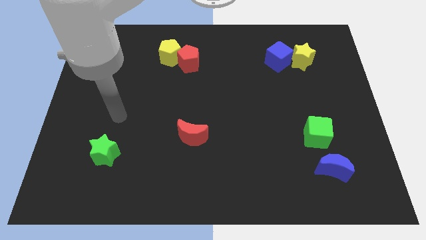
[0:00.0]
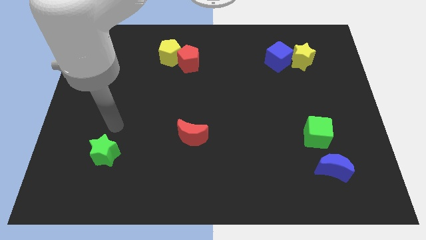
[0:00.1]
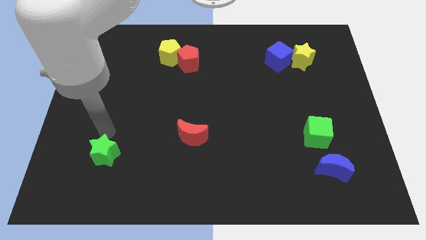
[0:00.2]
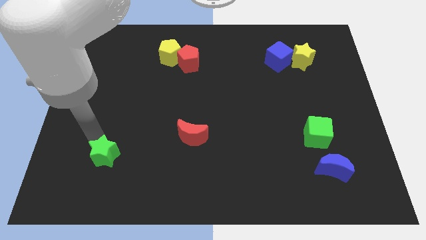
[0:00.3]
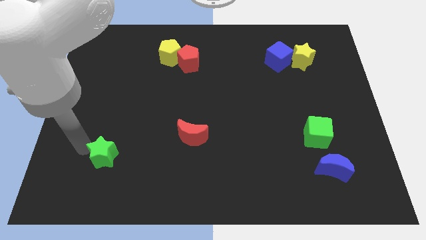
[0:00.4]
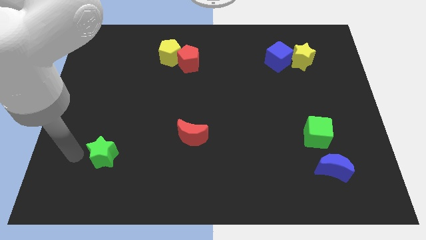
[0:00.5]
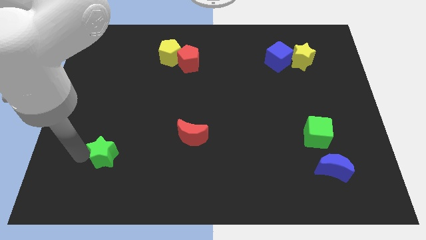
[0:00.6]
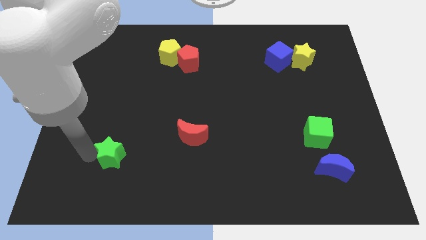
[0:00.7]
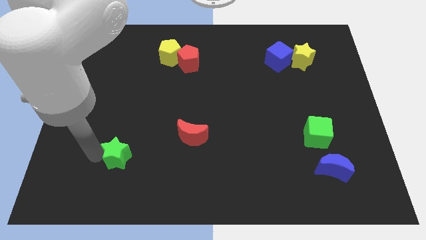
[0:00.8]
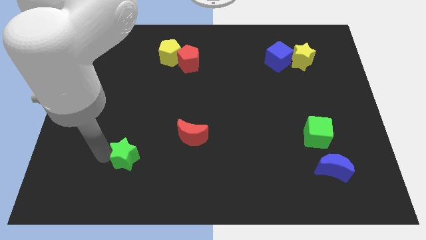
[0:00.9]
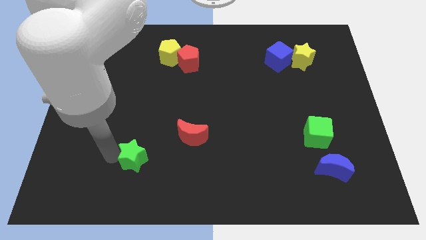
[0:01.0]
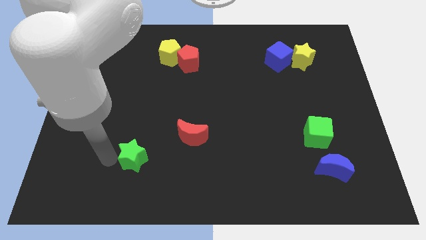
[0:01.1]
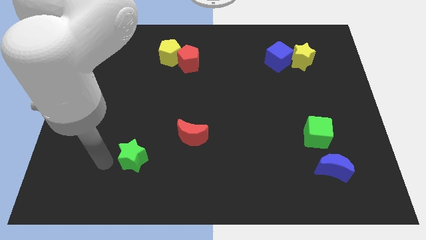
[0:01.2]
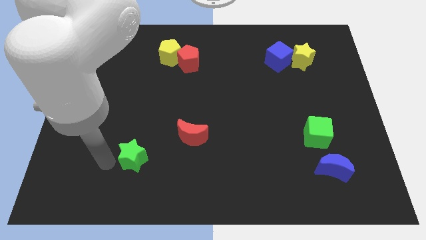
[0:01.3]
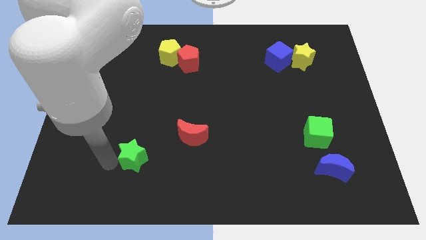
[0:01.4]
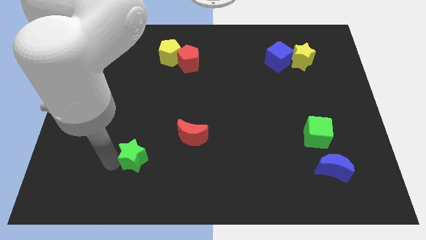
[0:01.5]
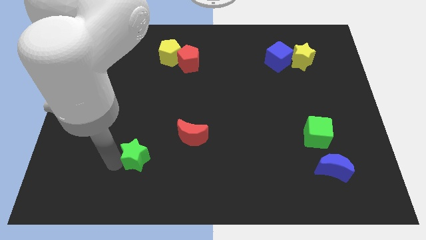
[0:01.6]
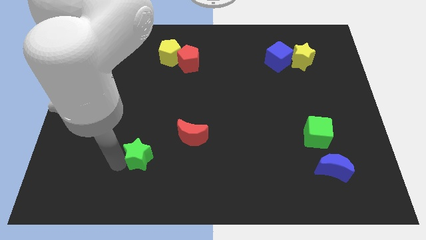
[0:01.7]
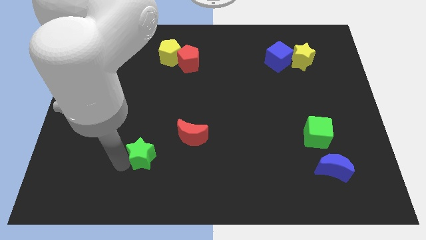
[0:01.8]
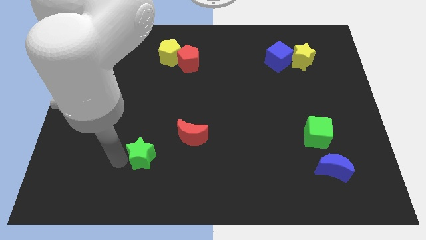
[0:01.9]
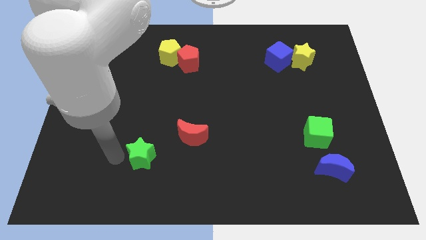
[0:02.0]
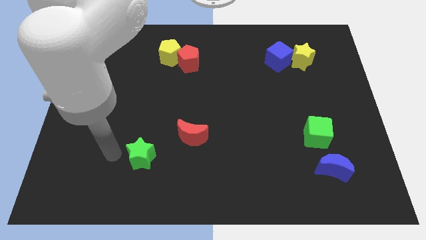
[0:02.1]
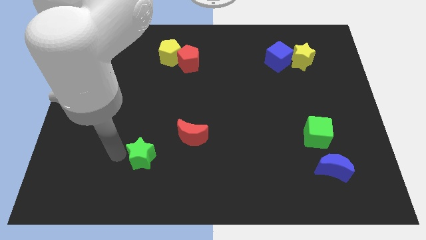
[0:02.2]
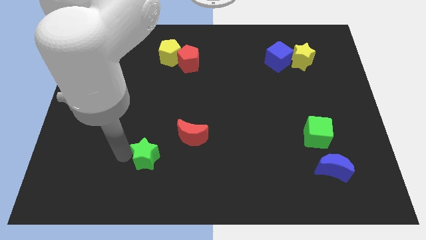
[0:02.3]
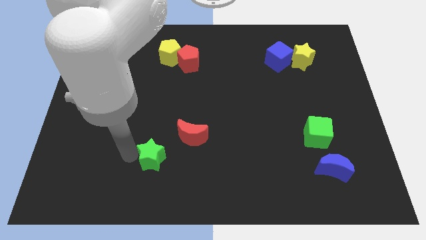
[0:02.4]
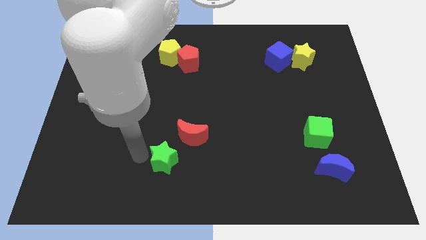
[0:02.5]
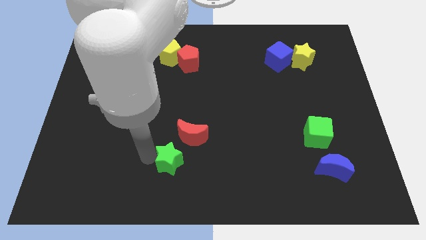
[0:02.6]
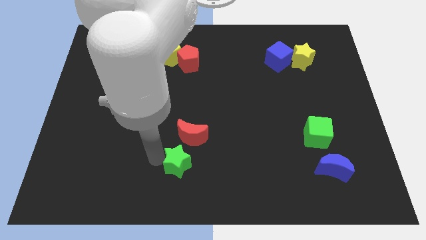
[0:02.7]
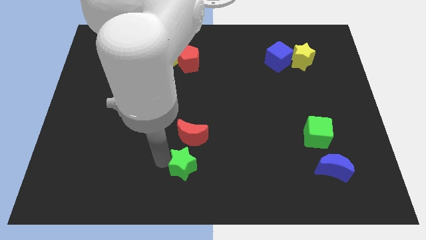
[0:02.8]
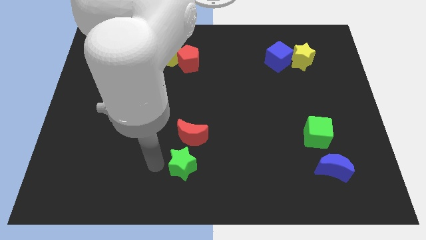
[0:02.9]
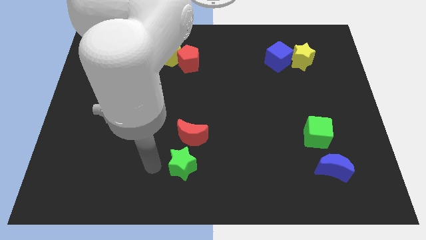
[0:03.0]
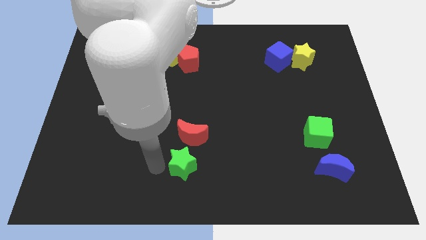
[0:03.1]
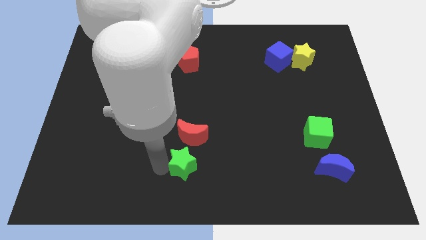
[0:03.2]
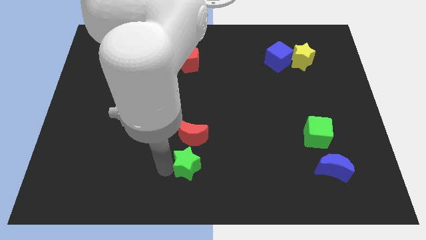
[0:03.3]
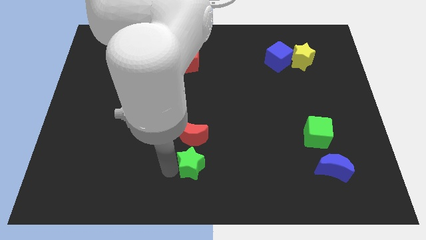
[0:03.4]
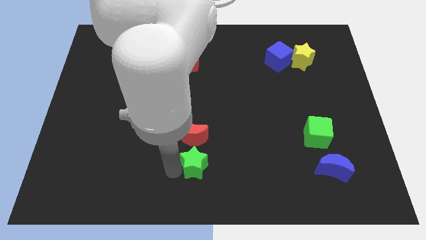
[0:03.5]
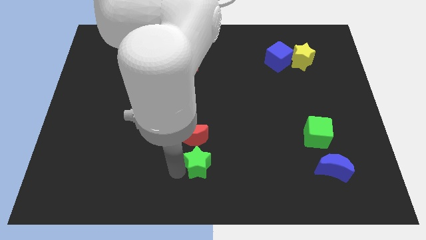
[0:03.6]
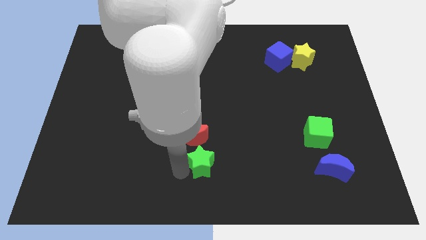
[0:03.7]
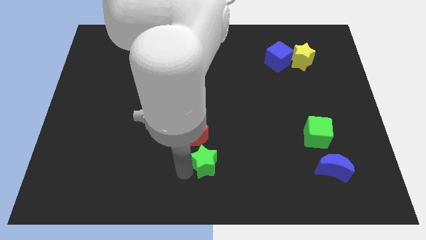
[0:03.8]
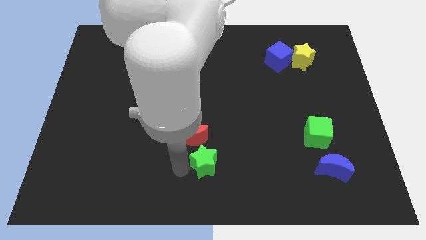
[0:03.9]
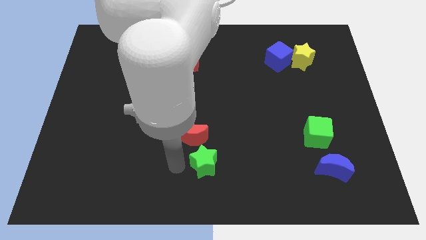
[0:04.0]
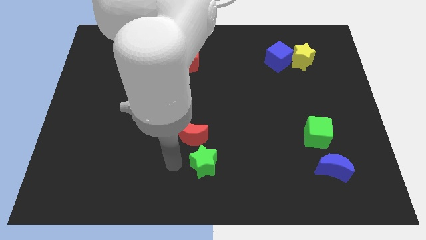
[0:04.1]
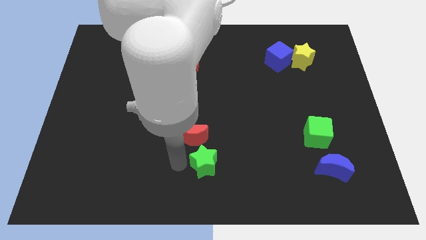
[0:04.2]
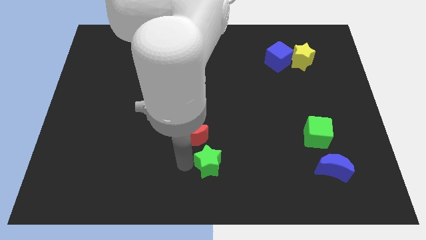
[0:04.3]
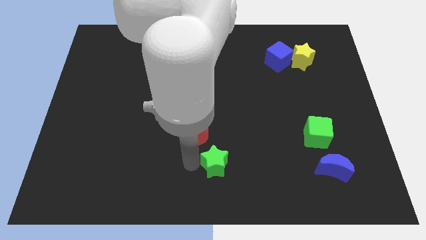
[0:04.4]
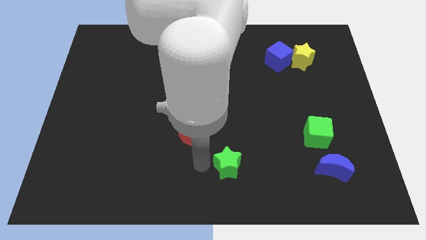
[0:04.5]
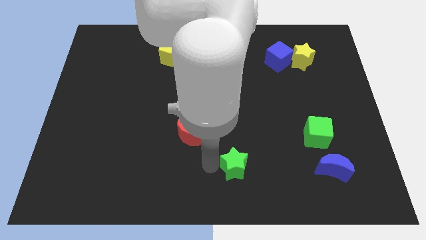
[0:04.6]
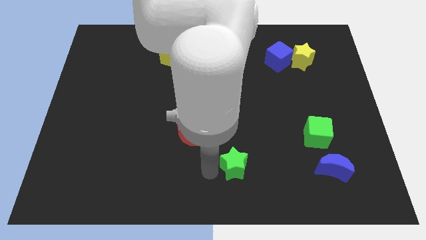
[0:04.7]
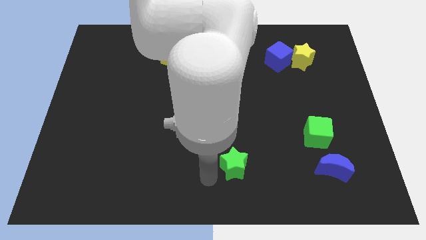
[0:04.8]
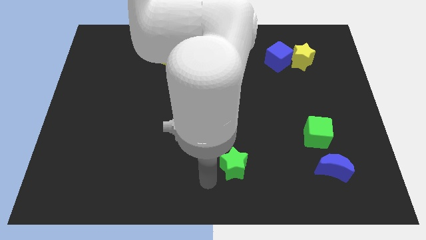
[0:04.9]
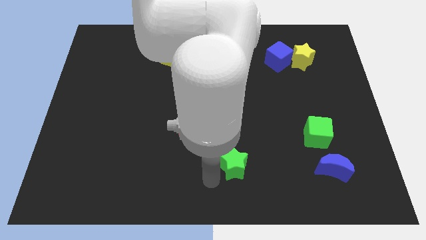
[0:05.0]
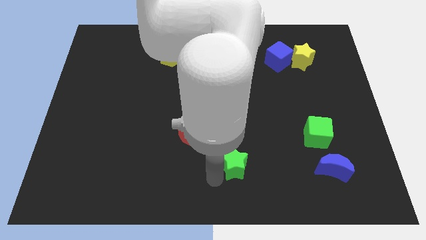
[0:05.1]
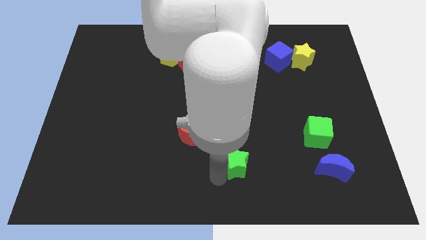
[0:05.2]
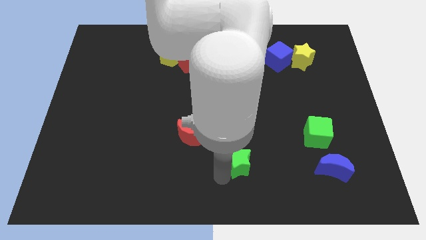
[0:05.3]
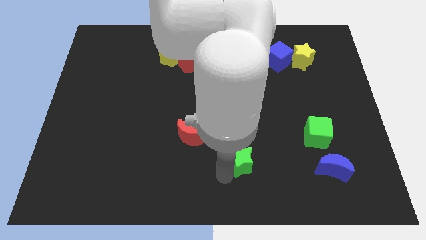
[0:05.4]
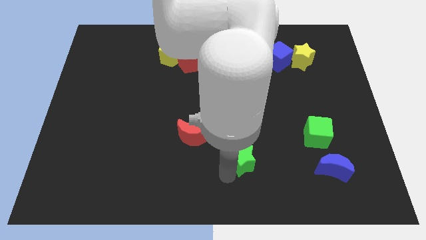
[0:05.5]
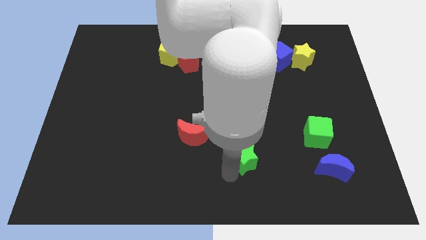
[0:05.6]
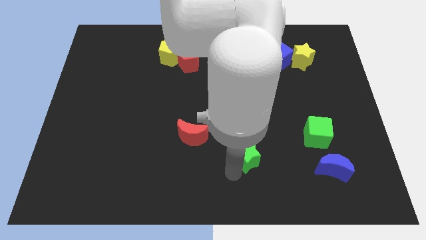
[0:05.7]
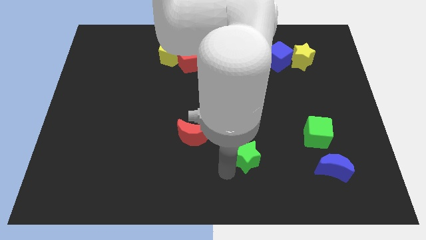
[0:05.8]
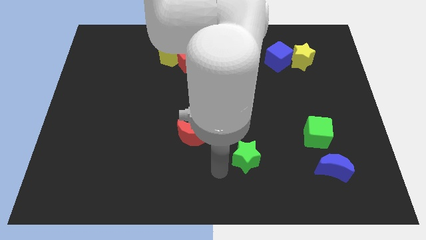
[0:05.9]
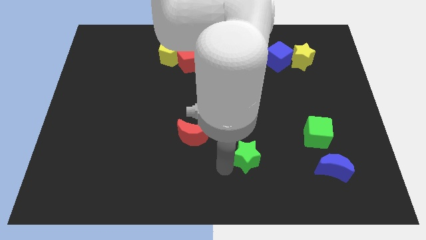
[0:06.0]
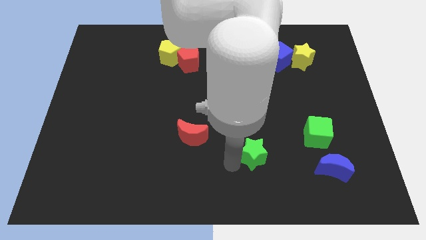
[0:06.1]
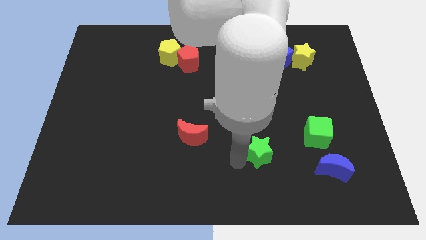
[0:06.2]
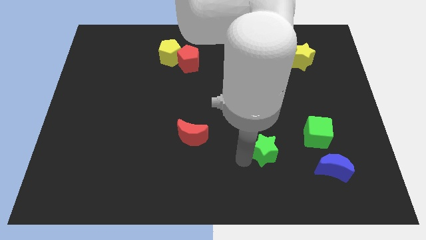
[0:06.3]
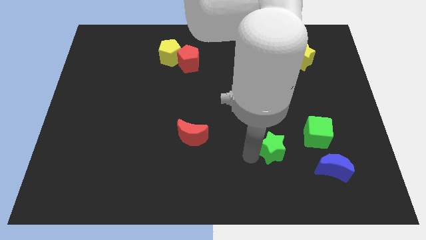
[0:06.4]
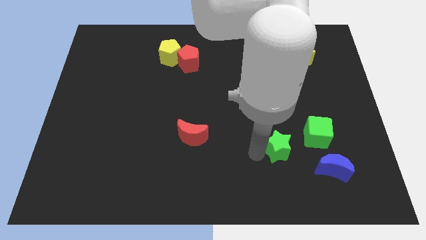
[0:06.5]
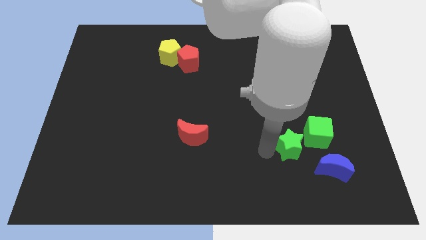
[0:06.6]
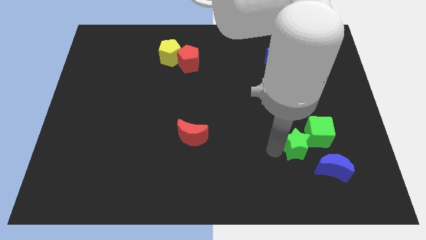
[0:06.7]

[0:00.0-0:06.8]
slide the green star towards the green cube
